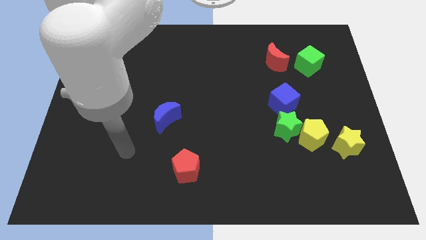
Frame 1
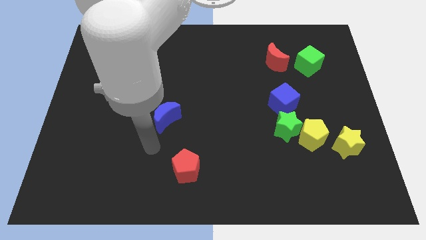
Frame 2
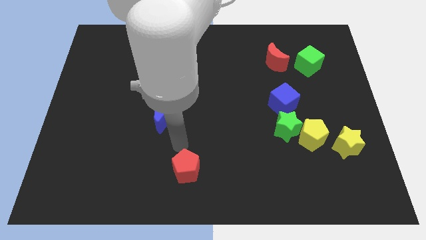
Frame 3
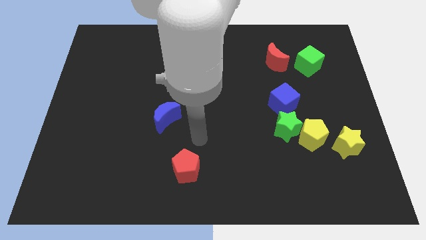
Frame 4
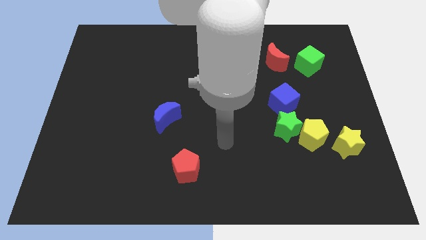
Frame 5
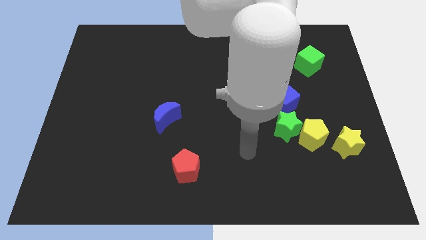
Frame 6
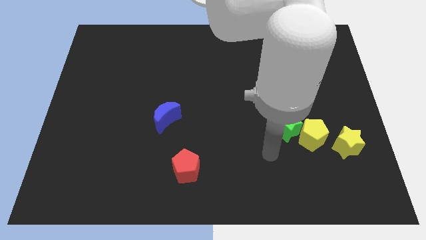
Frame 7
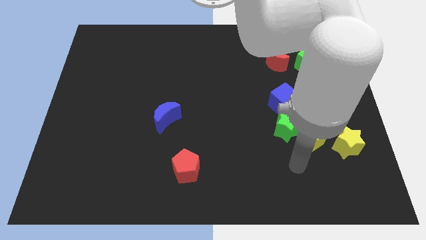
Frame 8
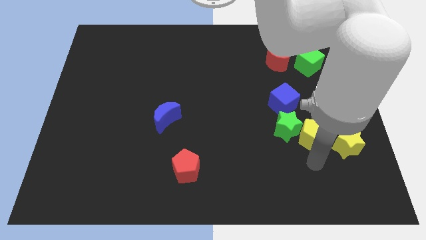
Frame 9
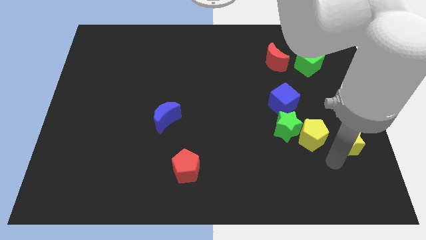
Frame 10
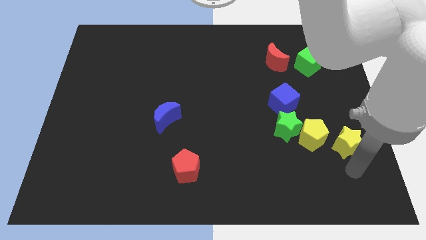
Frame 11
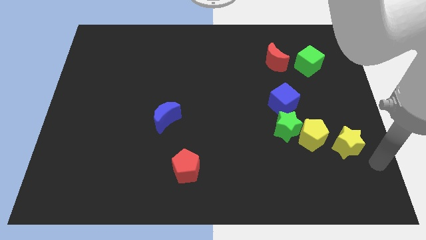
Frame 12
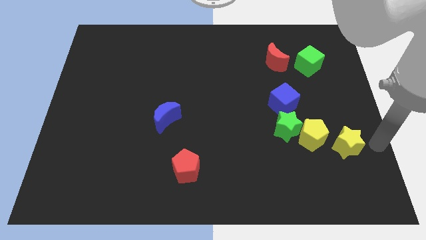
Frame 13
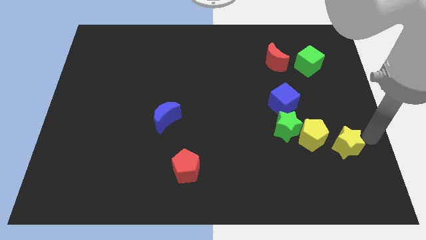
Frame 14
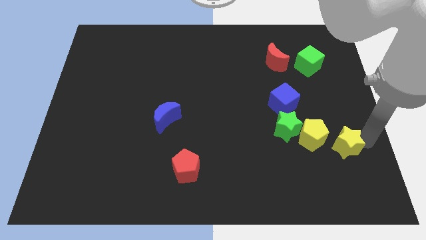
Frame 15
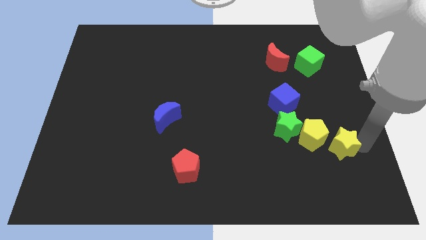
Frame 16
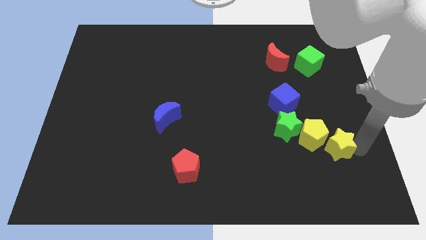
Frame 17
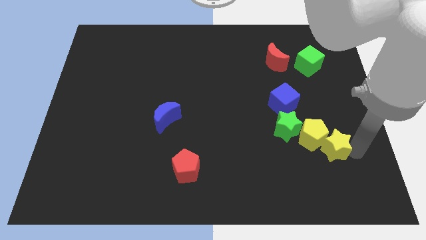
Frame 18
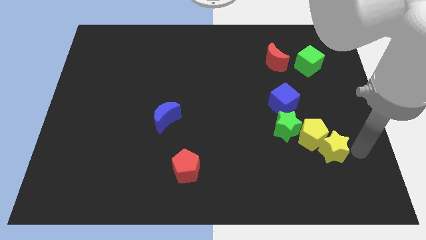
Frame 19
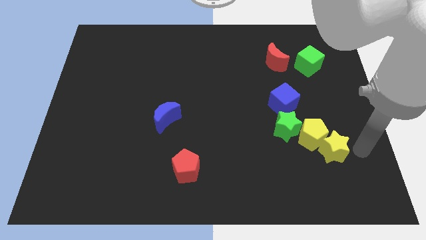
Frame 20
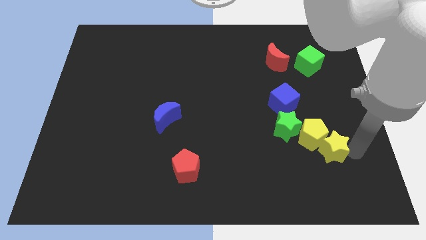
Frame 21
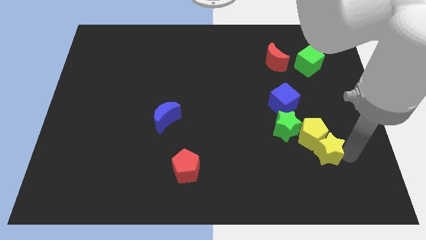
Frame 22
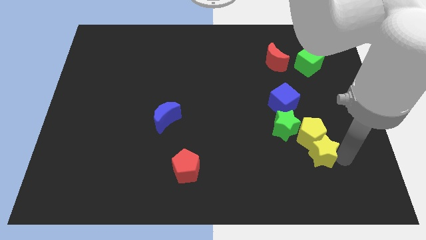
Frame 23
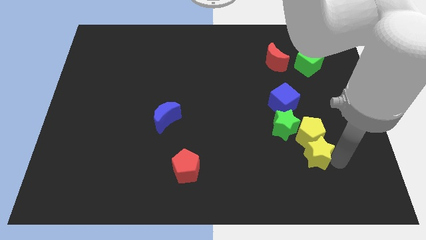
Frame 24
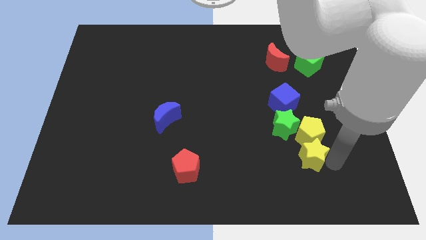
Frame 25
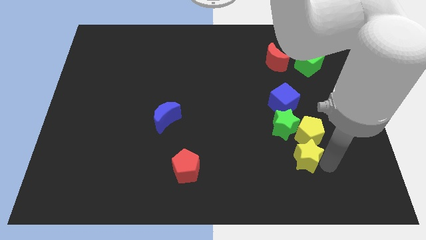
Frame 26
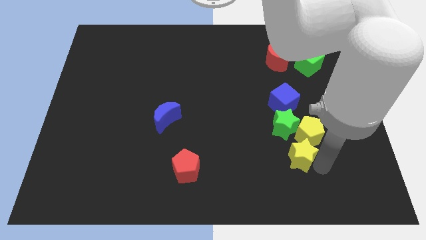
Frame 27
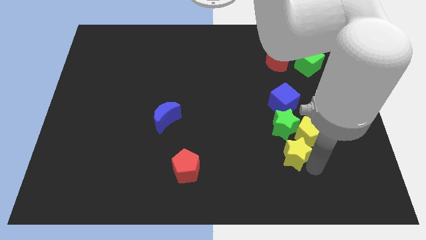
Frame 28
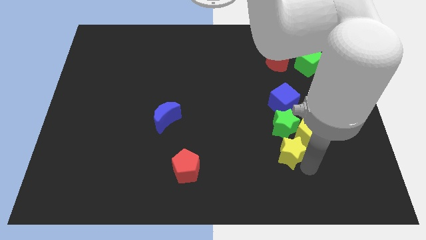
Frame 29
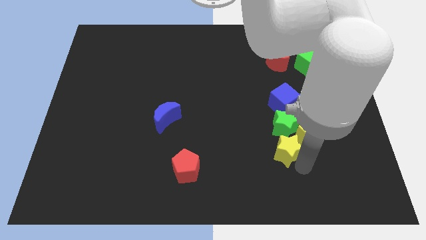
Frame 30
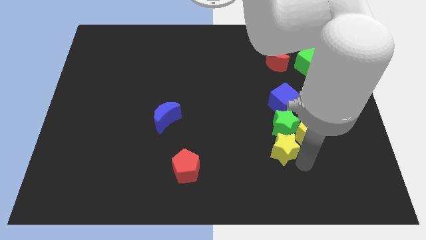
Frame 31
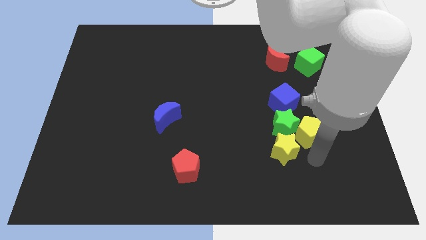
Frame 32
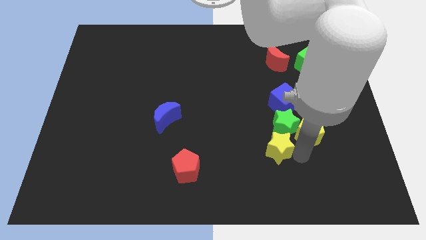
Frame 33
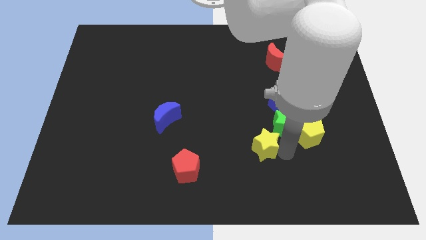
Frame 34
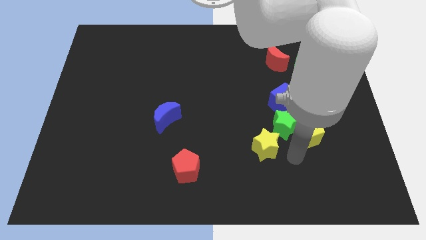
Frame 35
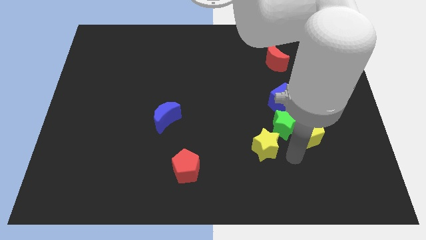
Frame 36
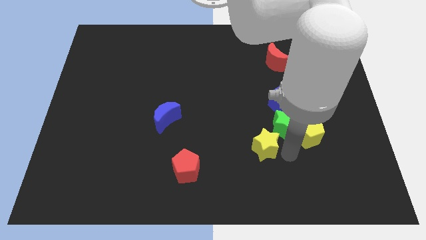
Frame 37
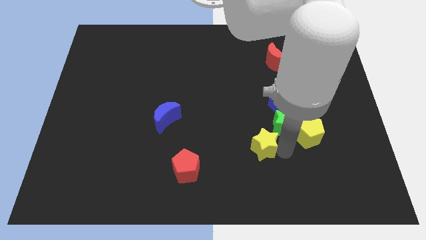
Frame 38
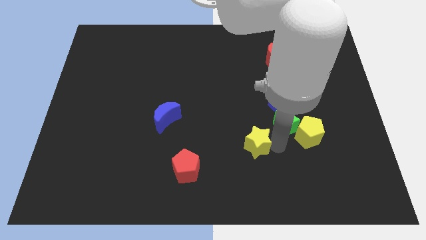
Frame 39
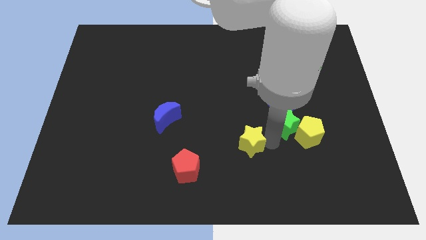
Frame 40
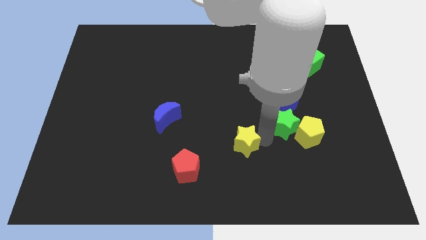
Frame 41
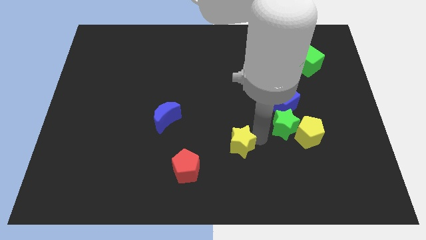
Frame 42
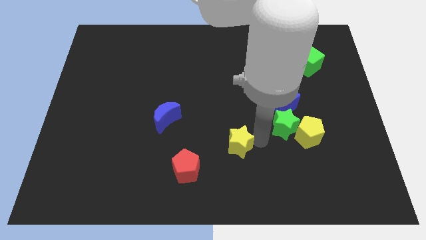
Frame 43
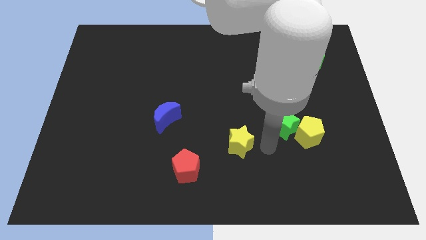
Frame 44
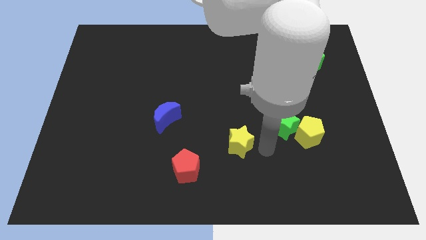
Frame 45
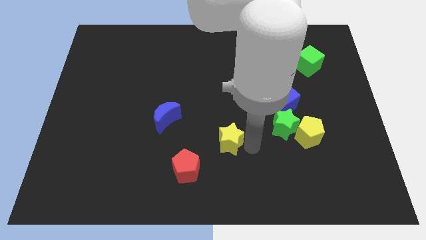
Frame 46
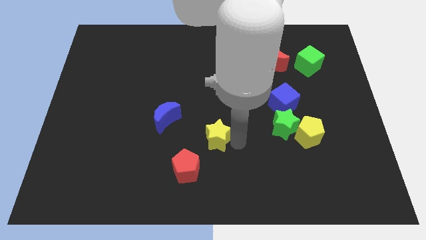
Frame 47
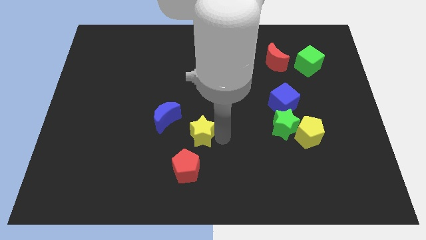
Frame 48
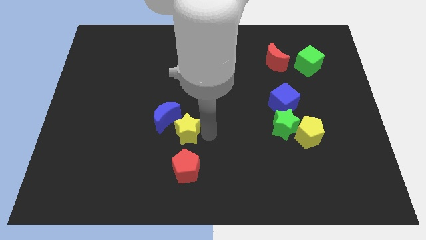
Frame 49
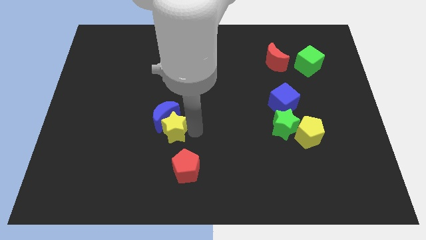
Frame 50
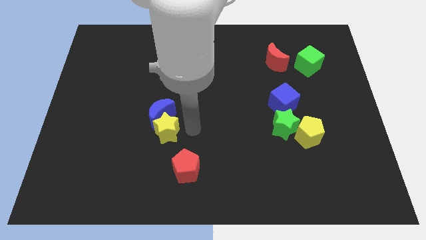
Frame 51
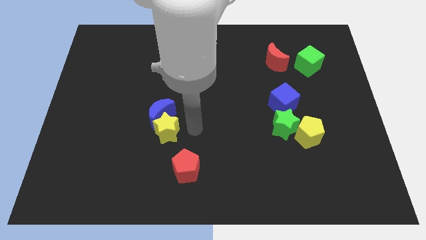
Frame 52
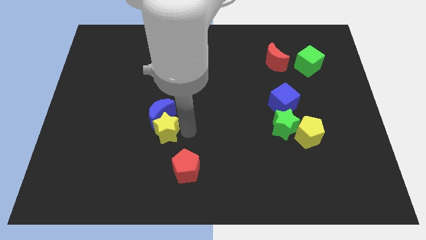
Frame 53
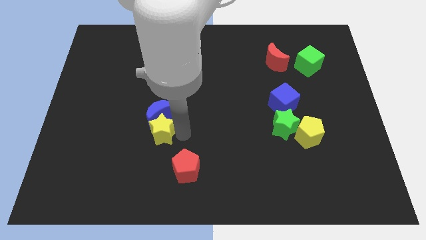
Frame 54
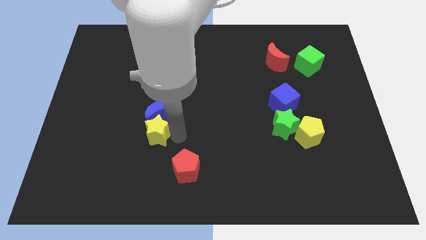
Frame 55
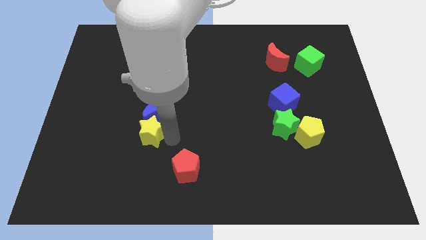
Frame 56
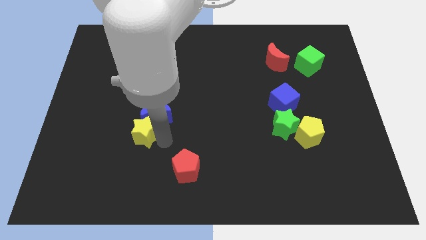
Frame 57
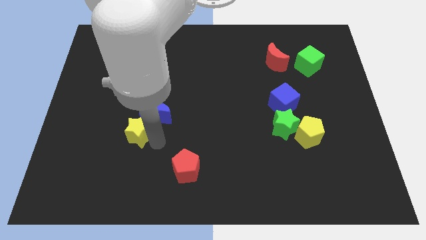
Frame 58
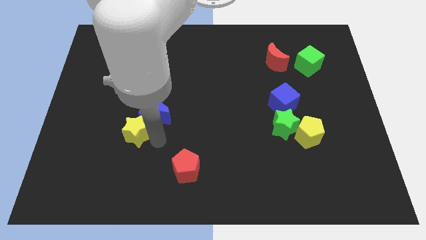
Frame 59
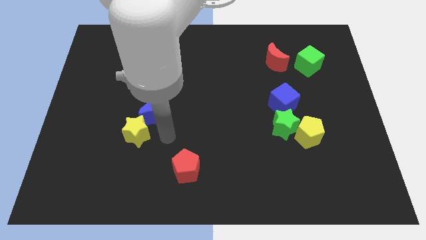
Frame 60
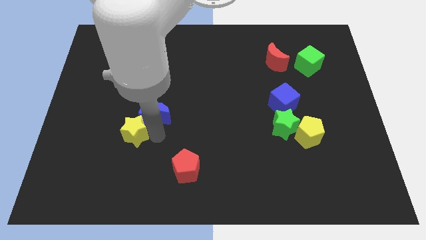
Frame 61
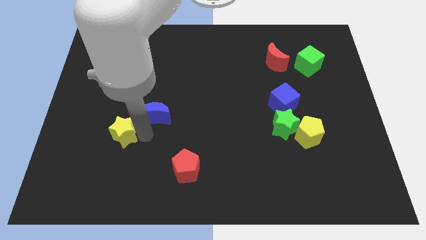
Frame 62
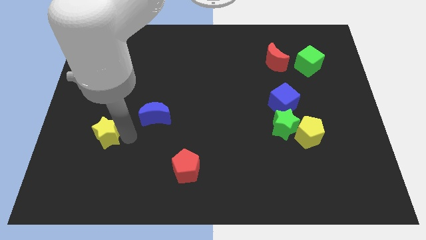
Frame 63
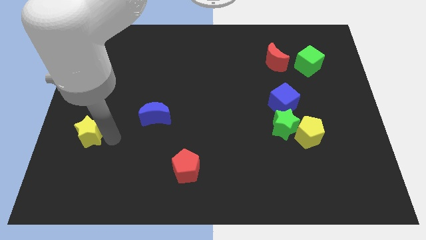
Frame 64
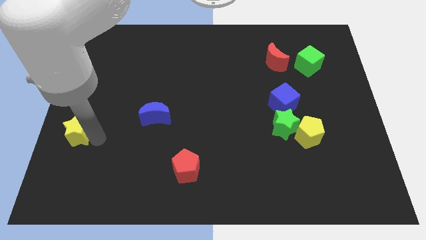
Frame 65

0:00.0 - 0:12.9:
push the yellow star to the left side of the board
